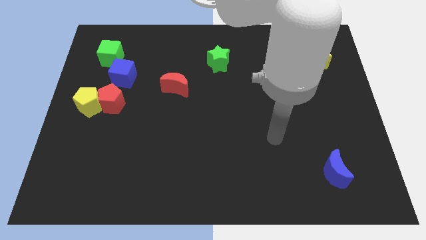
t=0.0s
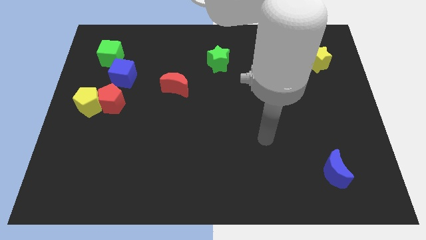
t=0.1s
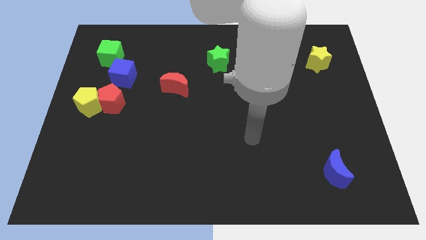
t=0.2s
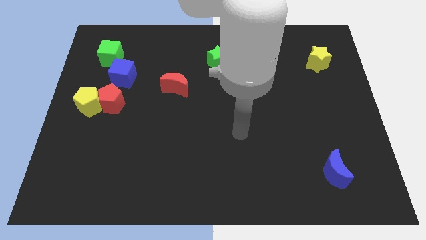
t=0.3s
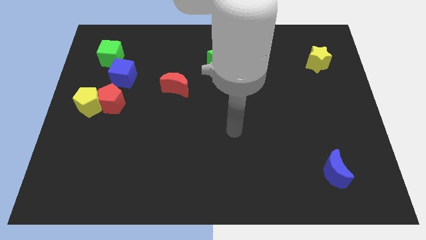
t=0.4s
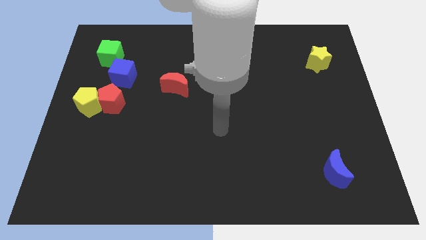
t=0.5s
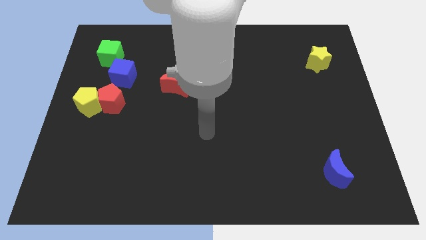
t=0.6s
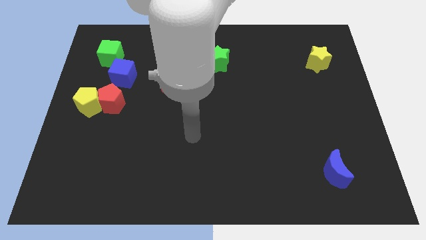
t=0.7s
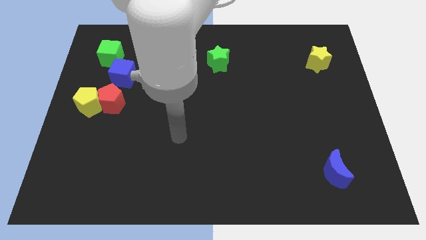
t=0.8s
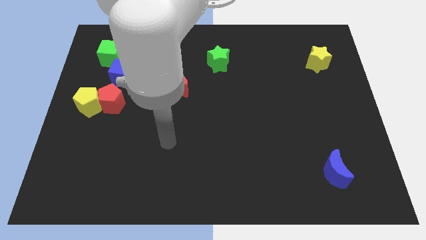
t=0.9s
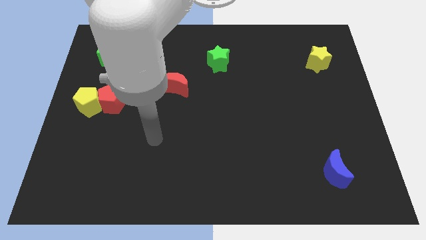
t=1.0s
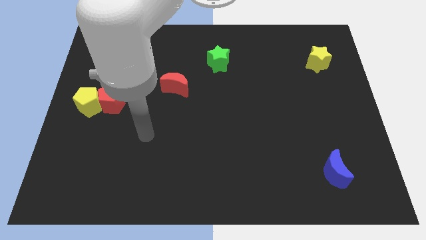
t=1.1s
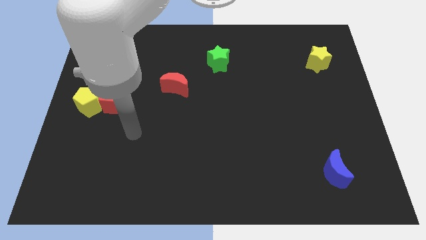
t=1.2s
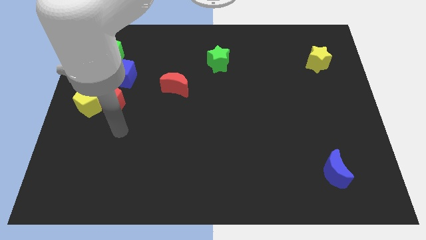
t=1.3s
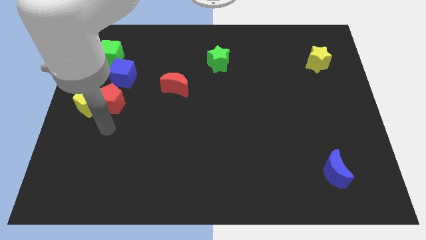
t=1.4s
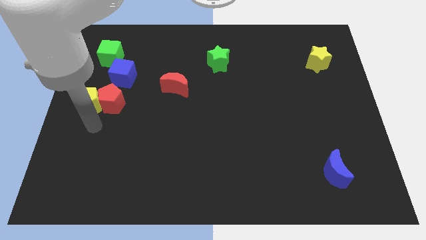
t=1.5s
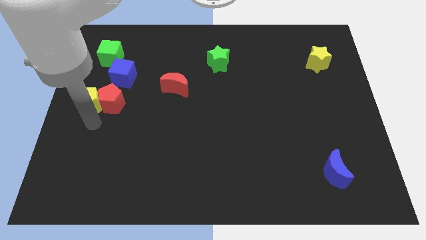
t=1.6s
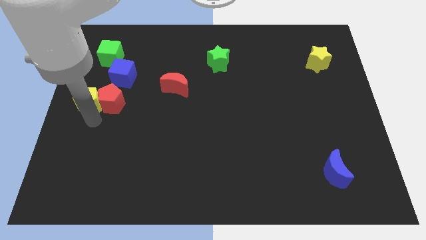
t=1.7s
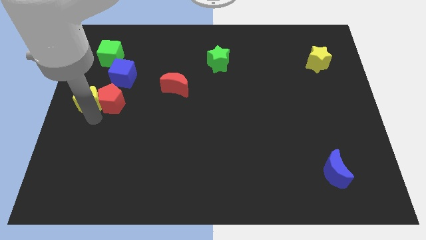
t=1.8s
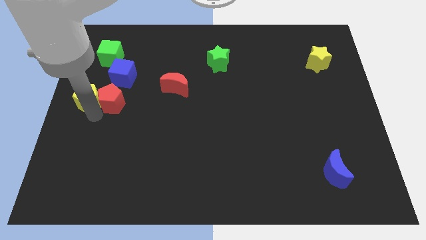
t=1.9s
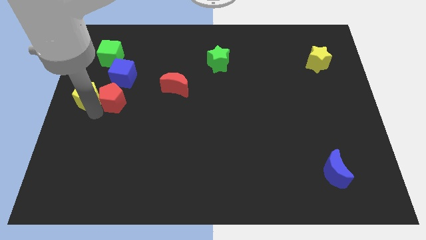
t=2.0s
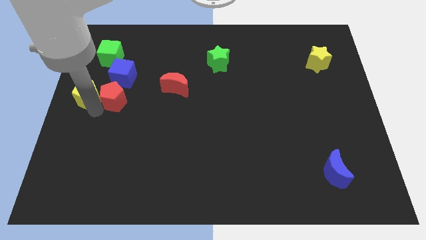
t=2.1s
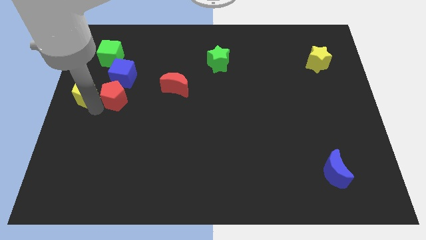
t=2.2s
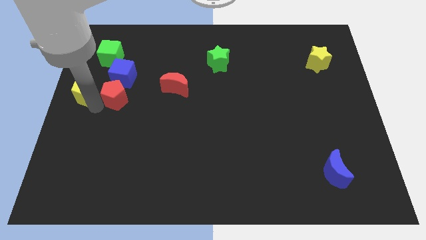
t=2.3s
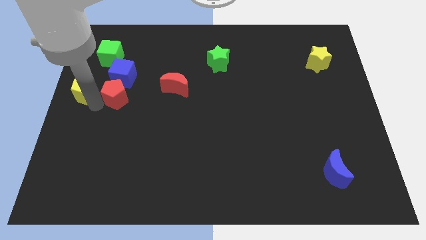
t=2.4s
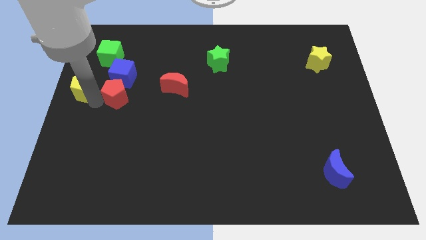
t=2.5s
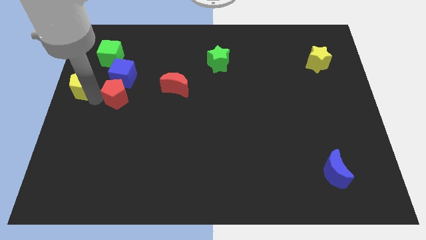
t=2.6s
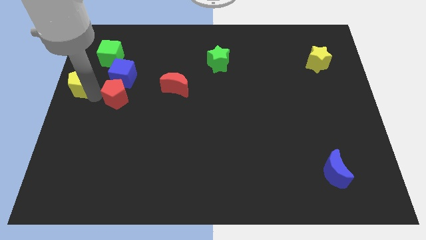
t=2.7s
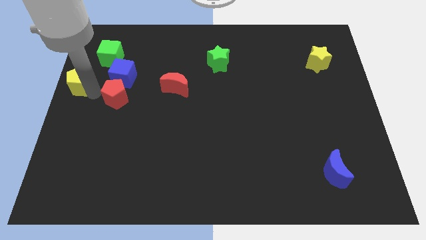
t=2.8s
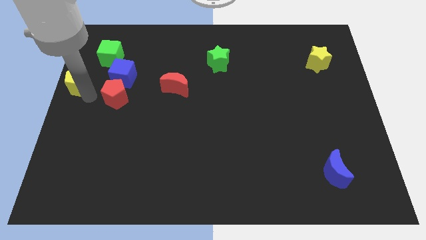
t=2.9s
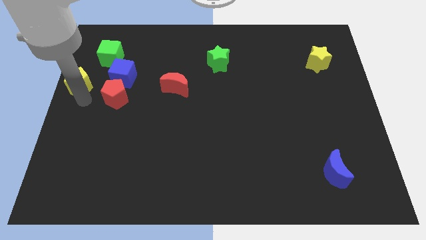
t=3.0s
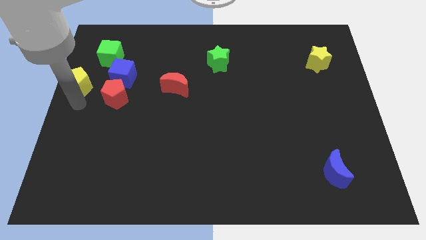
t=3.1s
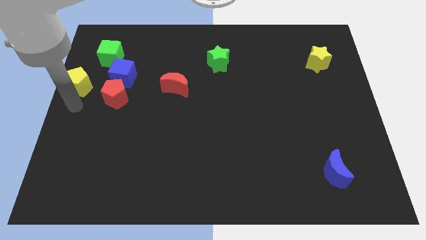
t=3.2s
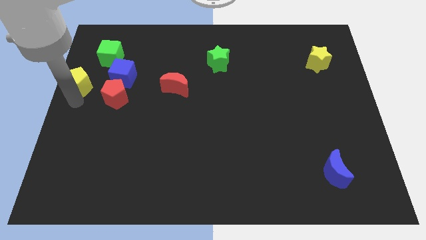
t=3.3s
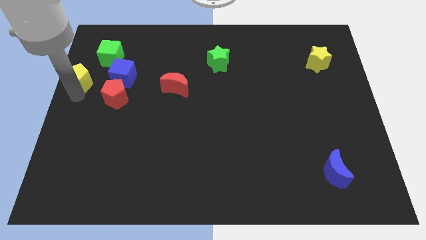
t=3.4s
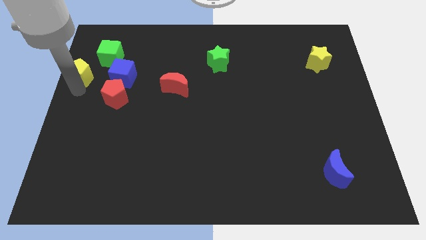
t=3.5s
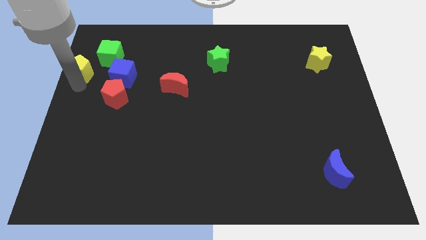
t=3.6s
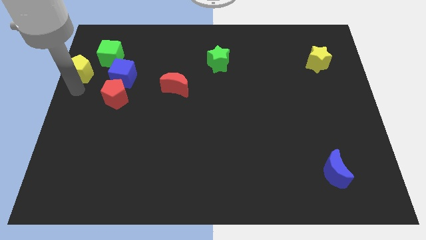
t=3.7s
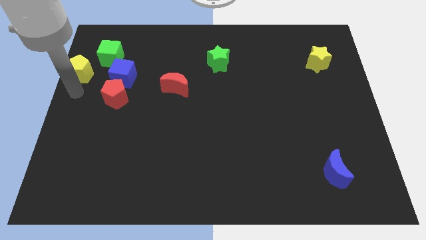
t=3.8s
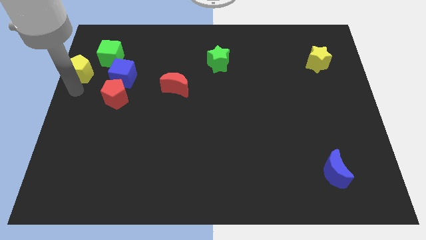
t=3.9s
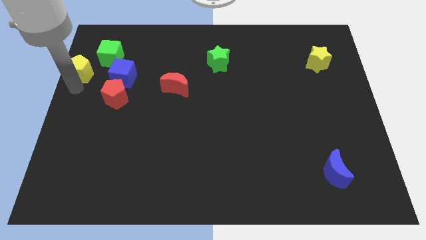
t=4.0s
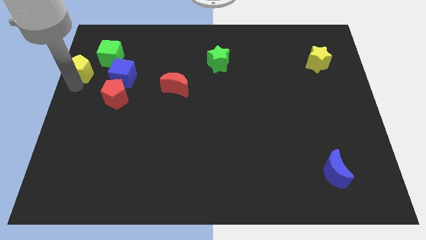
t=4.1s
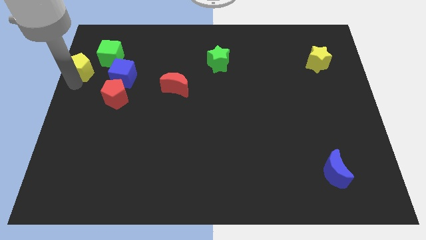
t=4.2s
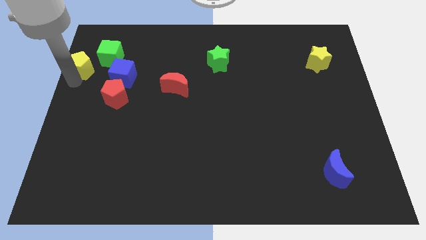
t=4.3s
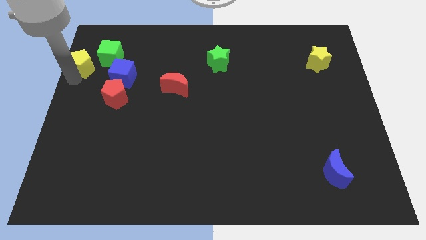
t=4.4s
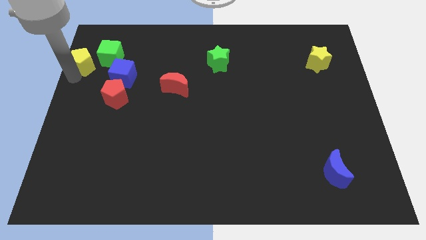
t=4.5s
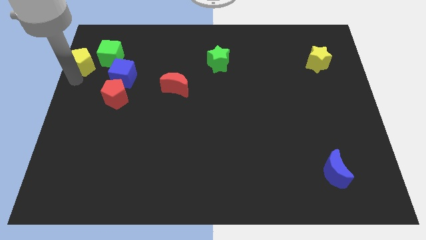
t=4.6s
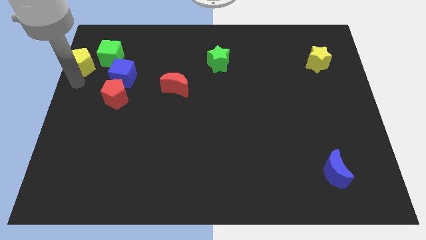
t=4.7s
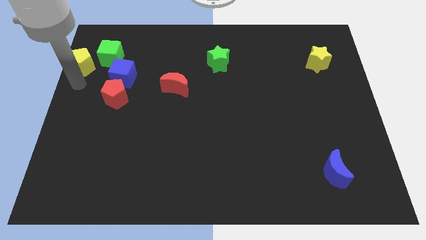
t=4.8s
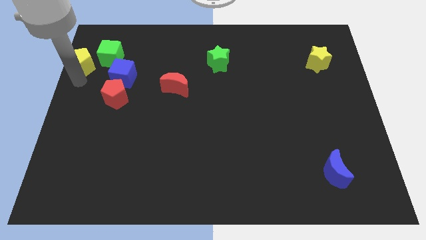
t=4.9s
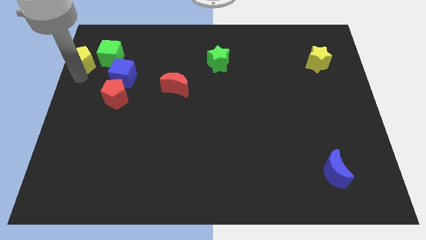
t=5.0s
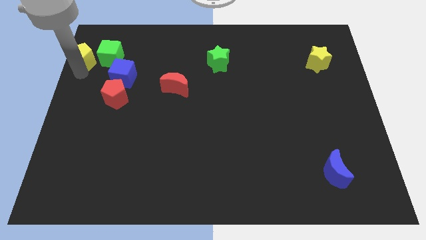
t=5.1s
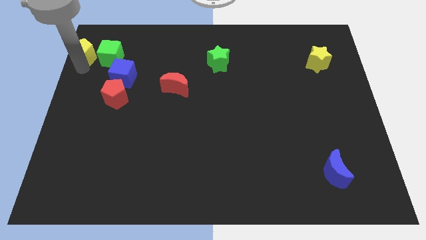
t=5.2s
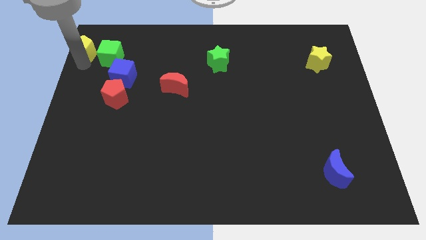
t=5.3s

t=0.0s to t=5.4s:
move the yellow pentagon to the upper left corner

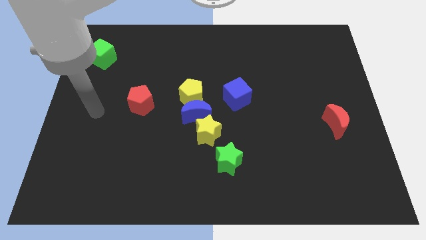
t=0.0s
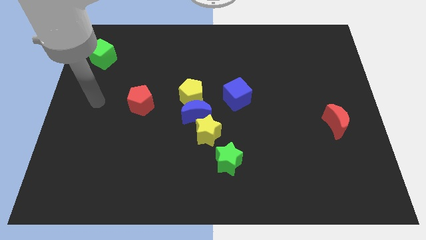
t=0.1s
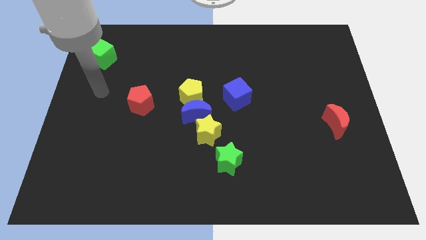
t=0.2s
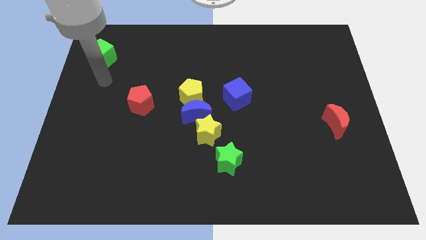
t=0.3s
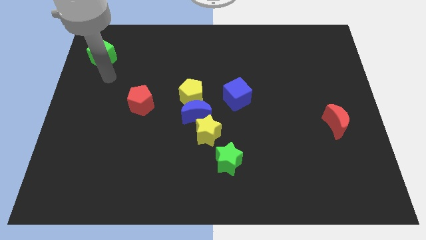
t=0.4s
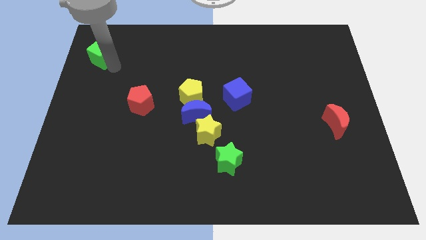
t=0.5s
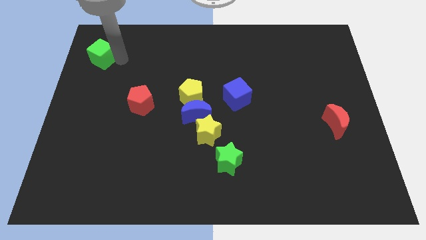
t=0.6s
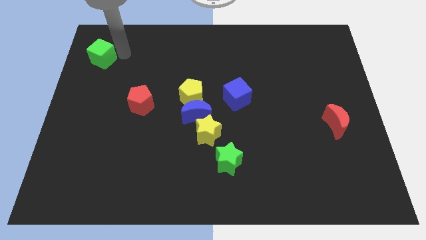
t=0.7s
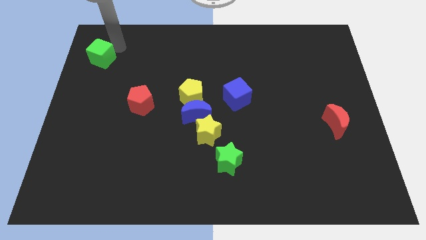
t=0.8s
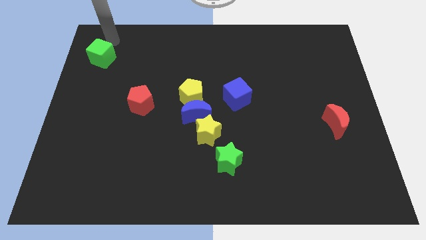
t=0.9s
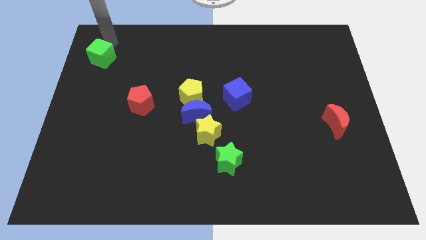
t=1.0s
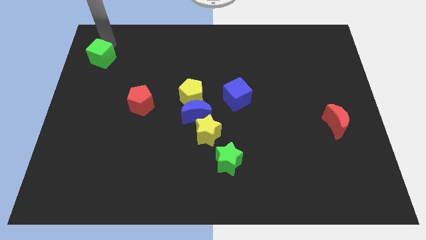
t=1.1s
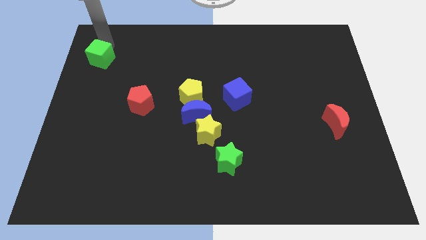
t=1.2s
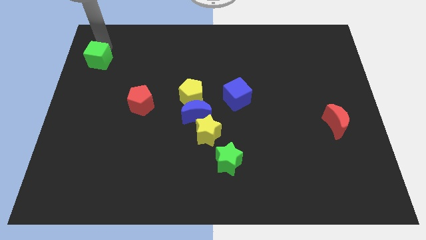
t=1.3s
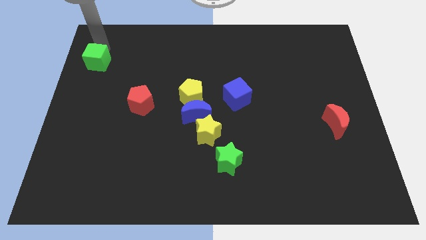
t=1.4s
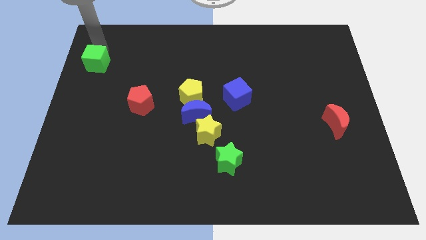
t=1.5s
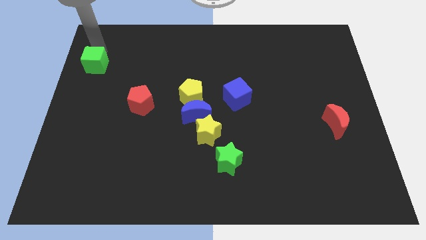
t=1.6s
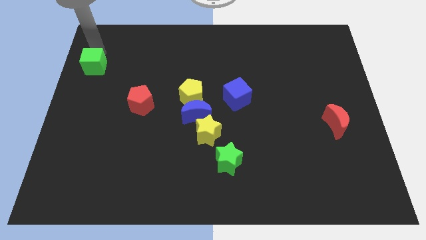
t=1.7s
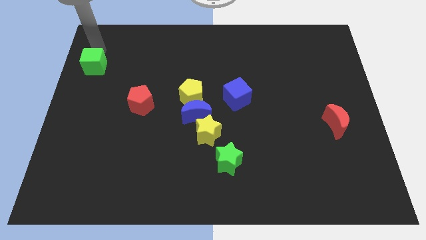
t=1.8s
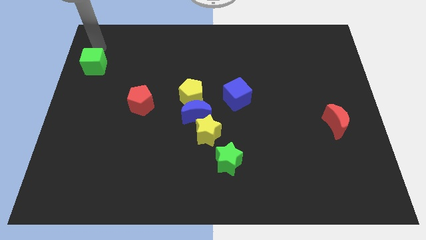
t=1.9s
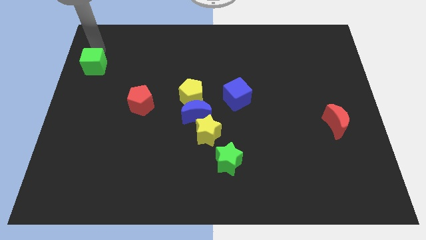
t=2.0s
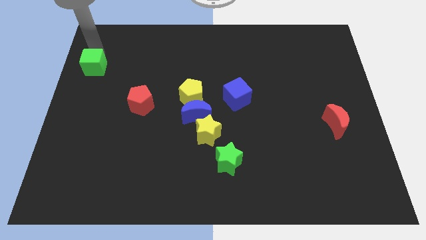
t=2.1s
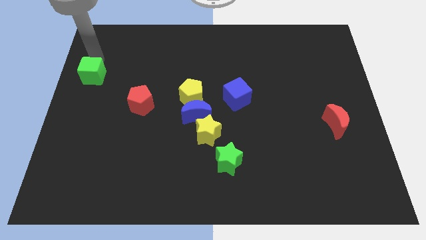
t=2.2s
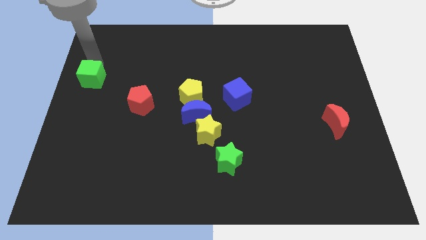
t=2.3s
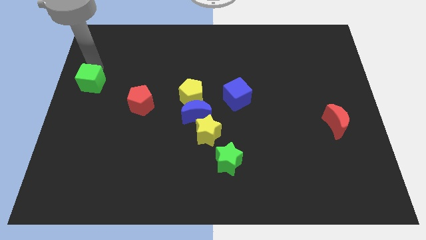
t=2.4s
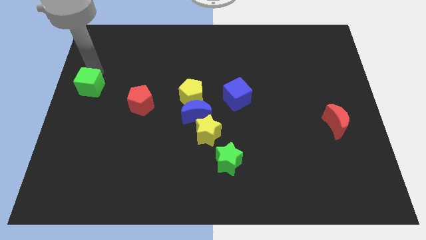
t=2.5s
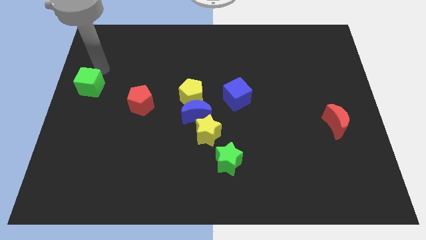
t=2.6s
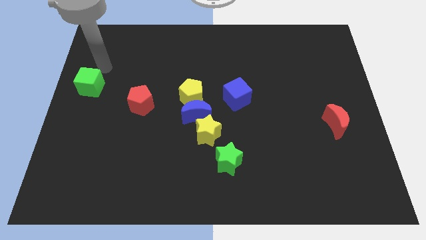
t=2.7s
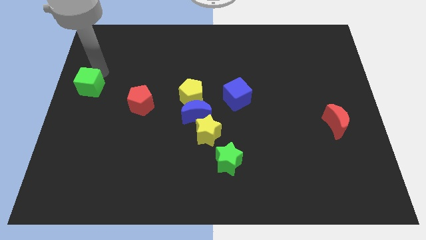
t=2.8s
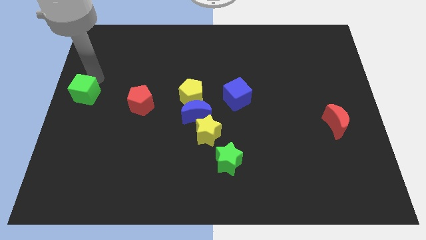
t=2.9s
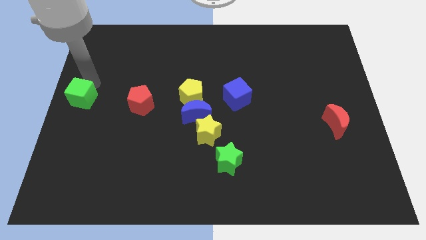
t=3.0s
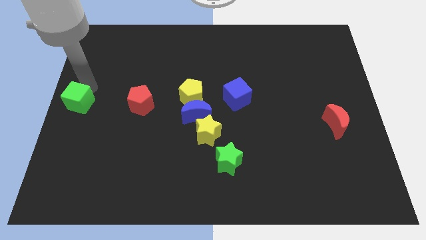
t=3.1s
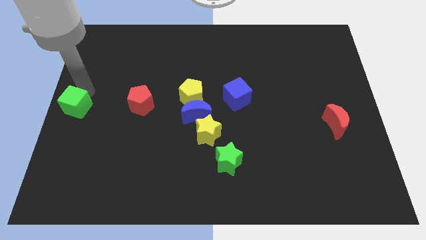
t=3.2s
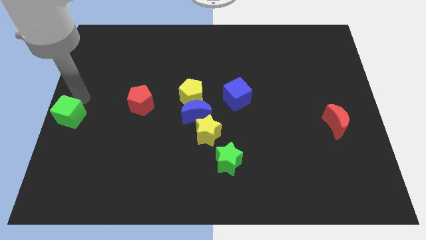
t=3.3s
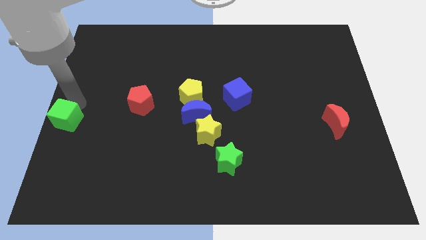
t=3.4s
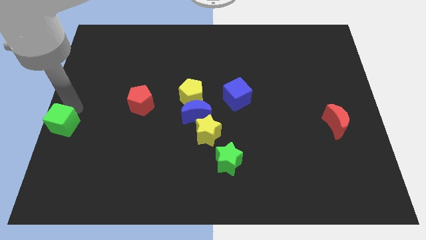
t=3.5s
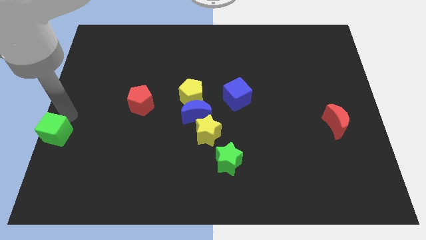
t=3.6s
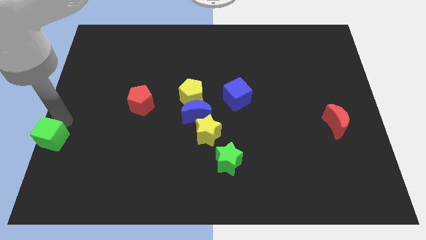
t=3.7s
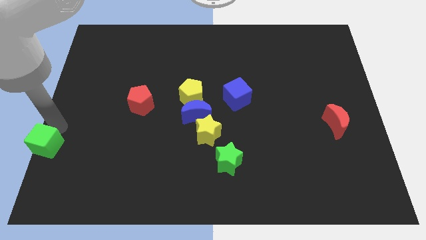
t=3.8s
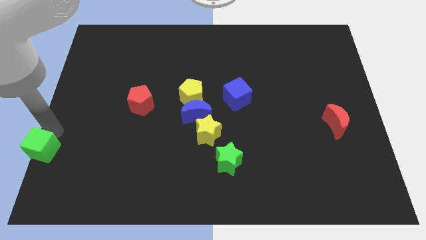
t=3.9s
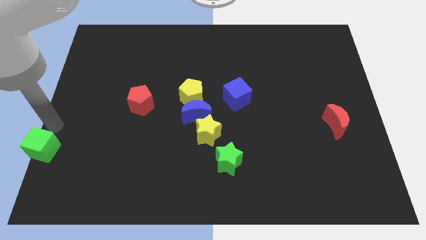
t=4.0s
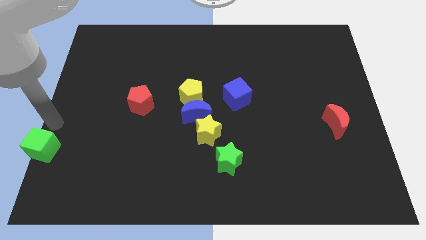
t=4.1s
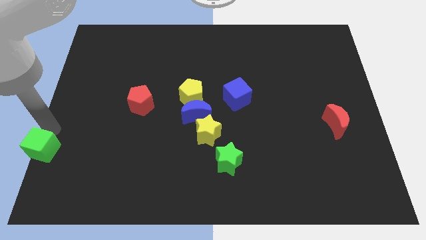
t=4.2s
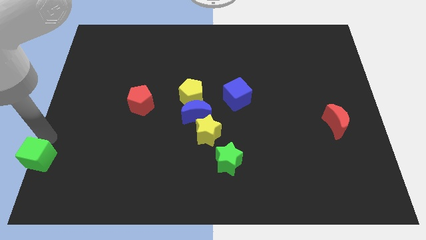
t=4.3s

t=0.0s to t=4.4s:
put the green cube to the bottom left of the board
